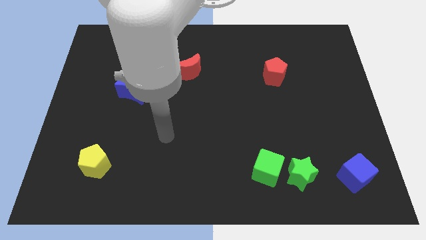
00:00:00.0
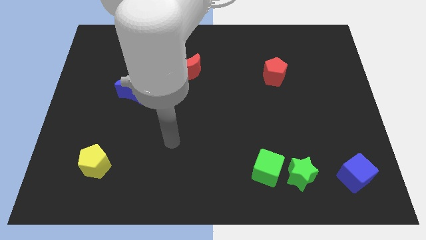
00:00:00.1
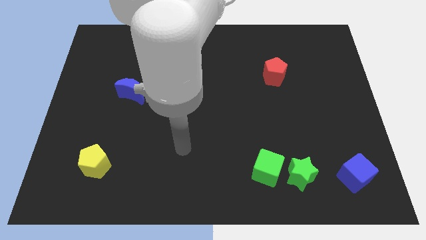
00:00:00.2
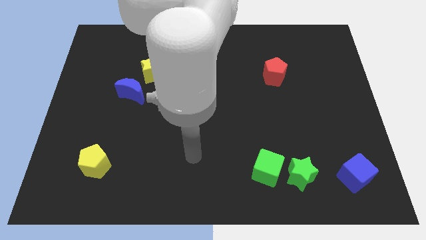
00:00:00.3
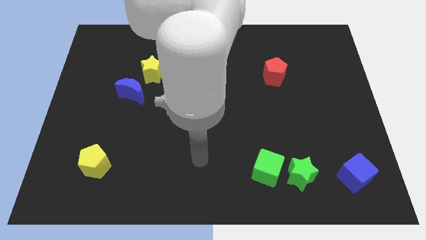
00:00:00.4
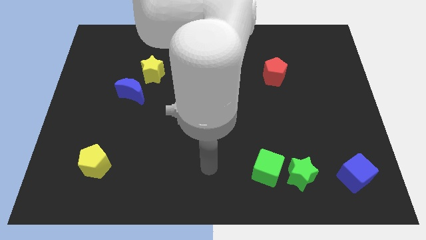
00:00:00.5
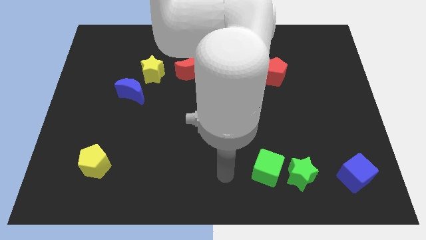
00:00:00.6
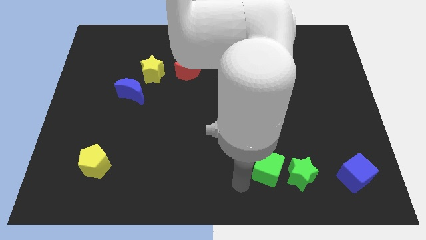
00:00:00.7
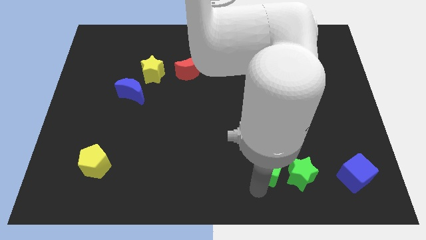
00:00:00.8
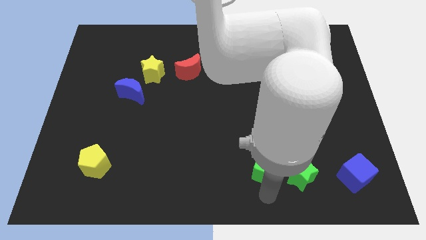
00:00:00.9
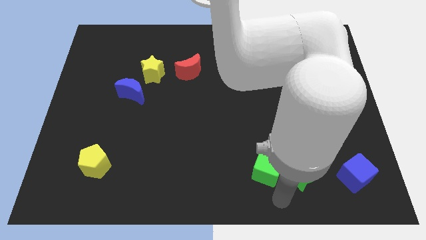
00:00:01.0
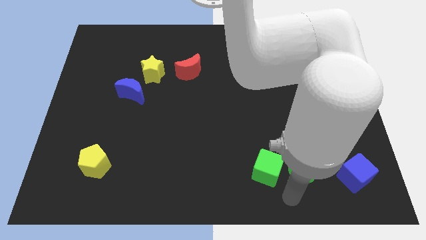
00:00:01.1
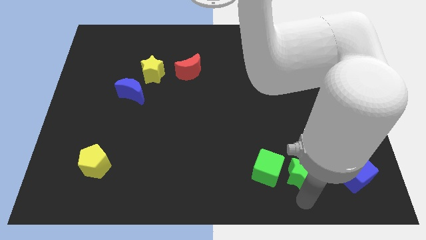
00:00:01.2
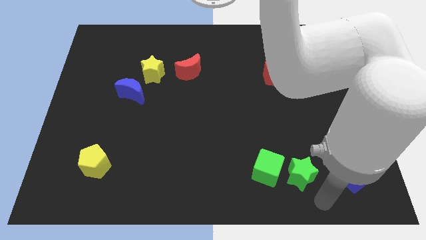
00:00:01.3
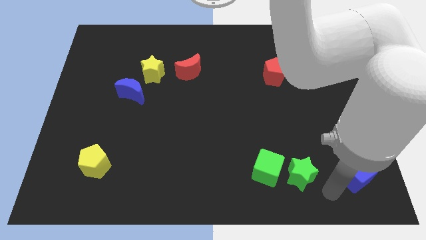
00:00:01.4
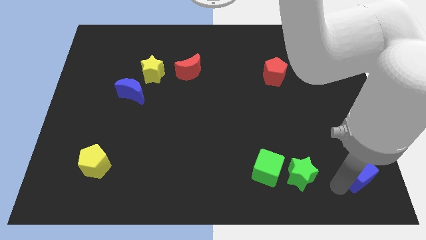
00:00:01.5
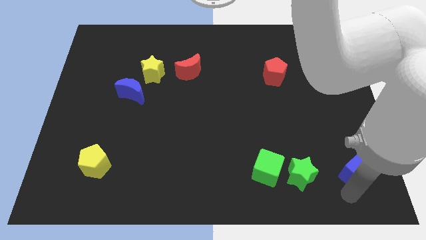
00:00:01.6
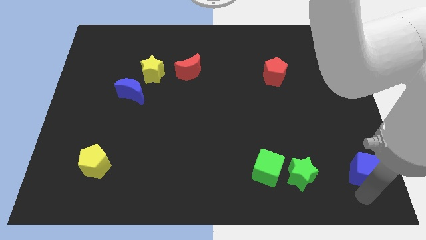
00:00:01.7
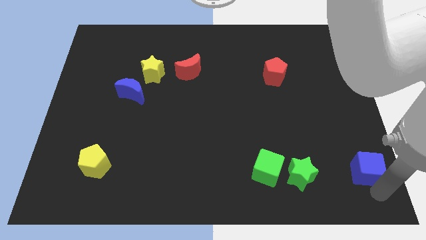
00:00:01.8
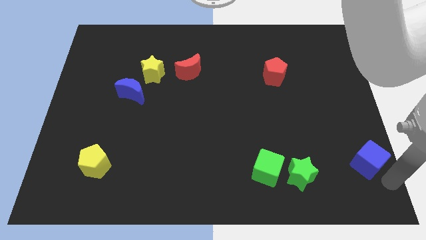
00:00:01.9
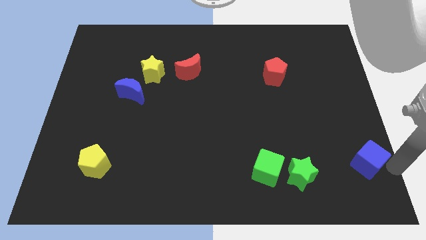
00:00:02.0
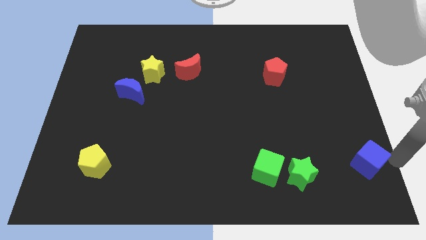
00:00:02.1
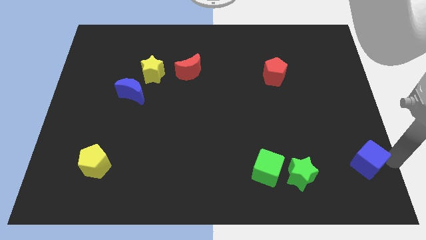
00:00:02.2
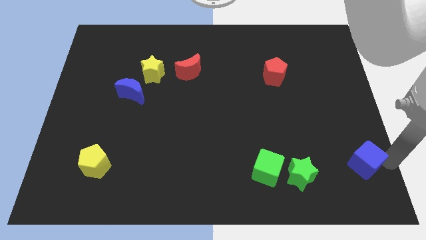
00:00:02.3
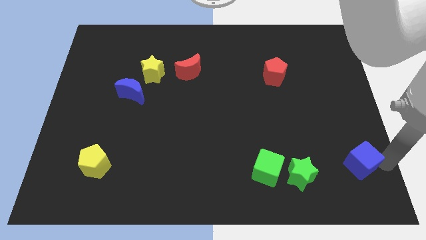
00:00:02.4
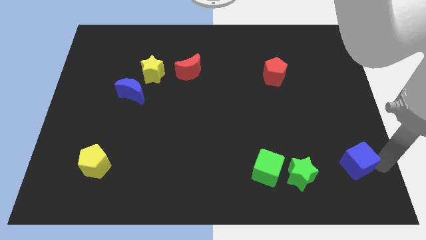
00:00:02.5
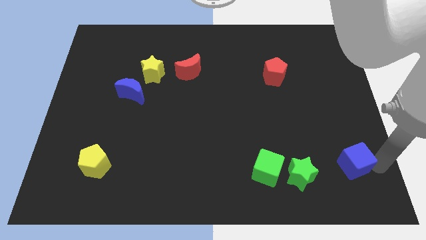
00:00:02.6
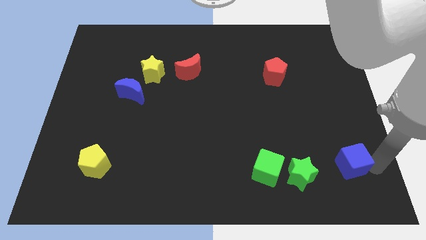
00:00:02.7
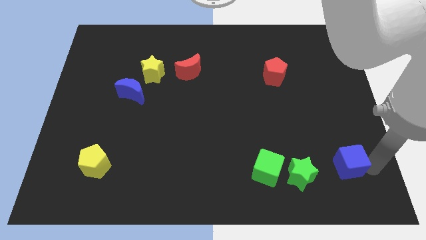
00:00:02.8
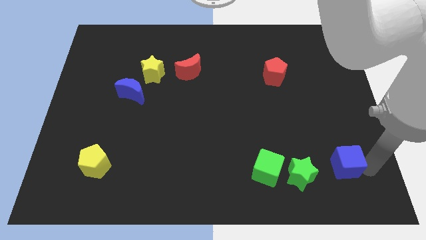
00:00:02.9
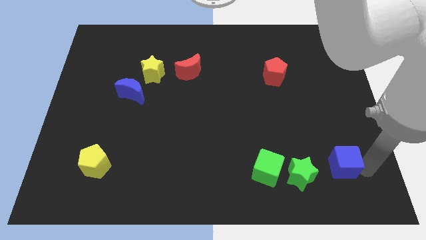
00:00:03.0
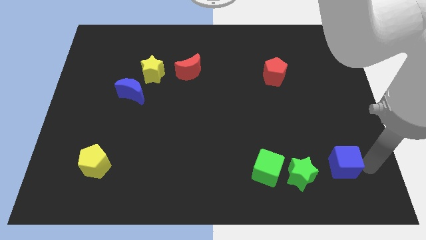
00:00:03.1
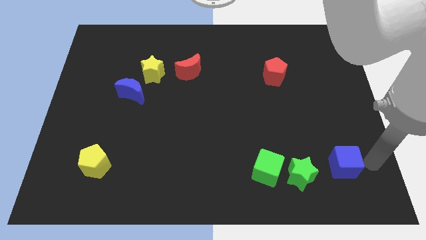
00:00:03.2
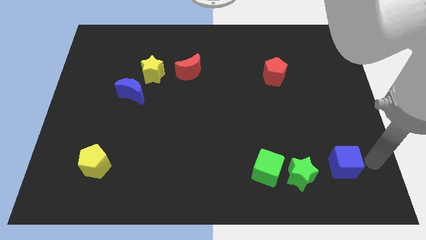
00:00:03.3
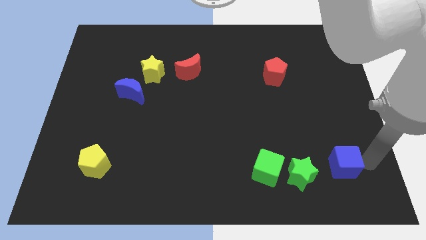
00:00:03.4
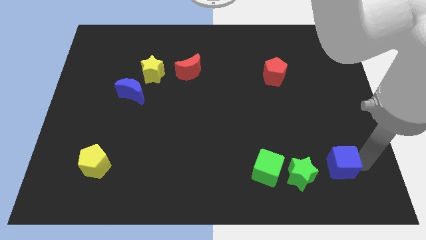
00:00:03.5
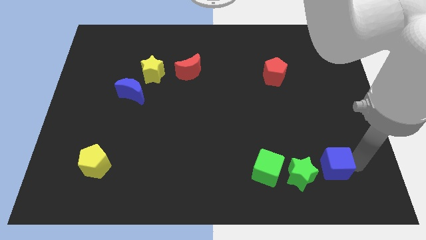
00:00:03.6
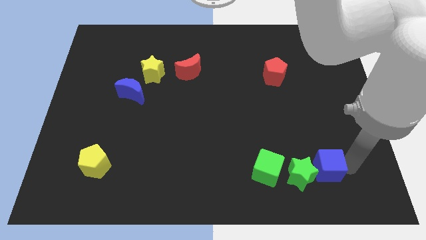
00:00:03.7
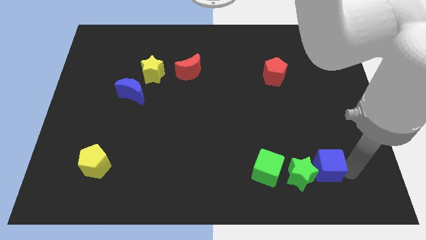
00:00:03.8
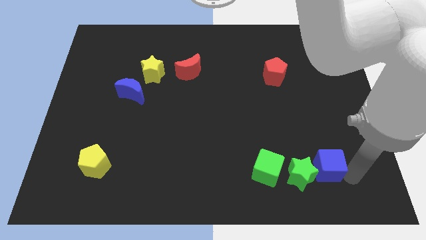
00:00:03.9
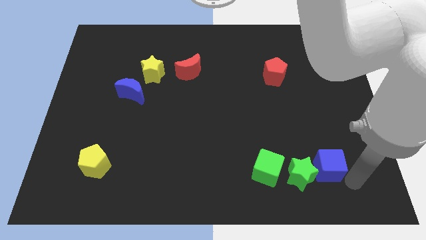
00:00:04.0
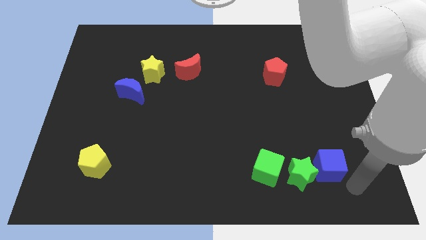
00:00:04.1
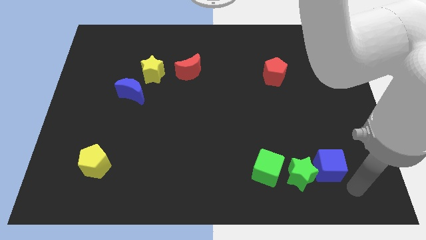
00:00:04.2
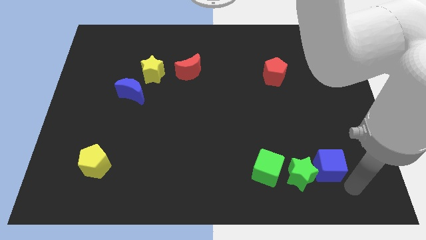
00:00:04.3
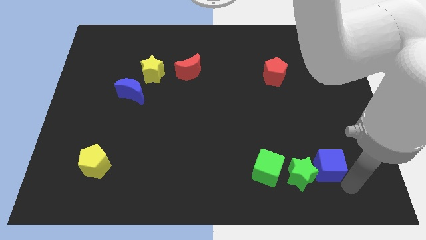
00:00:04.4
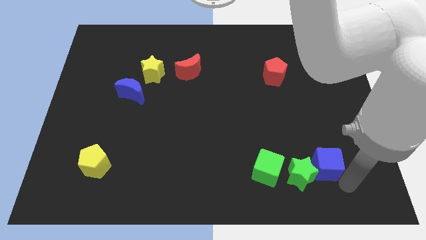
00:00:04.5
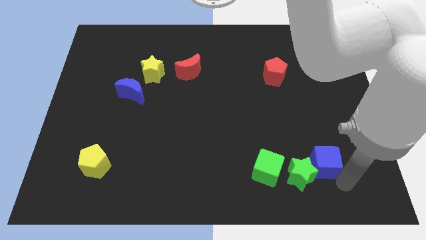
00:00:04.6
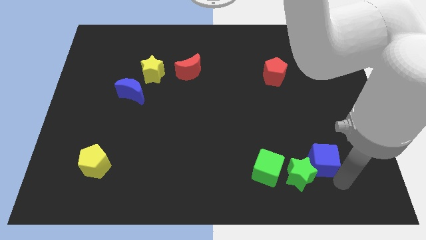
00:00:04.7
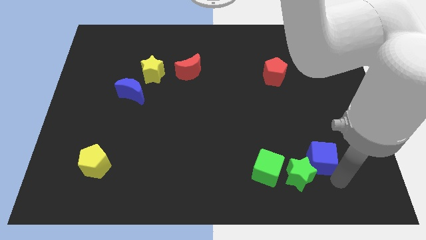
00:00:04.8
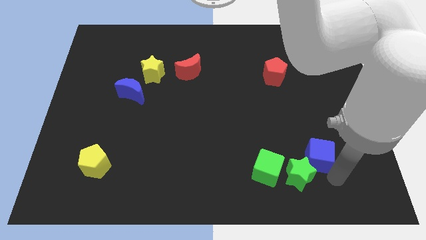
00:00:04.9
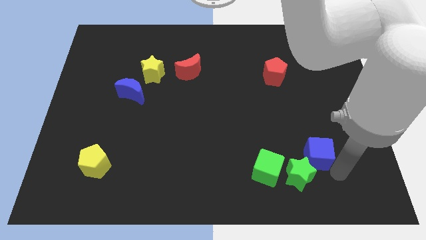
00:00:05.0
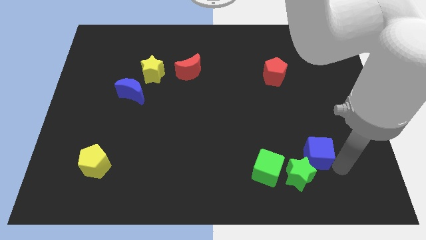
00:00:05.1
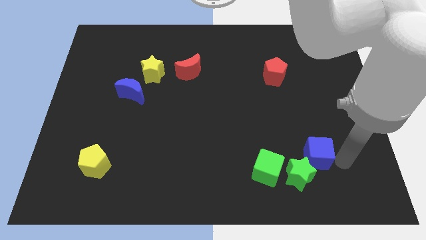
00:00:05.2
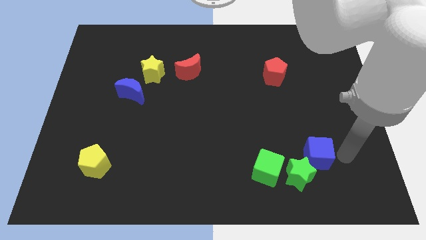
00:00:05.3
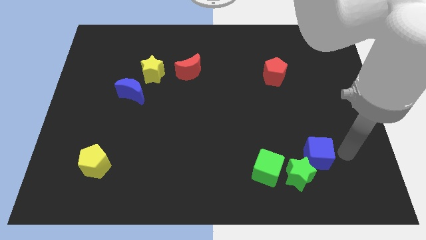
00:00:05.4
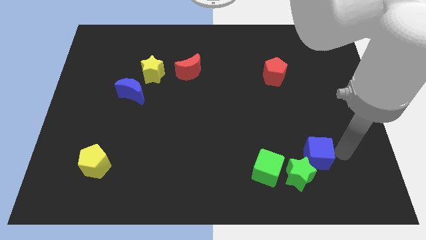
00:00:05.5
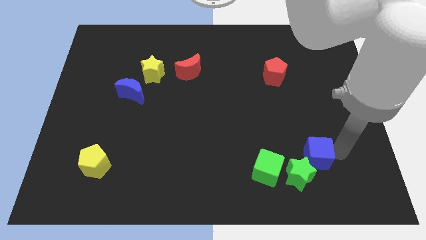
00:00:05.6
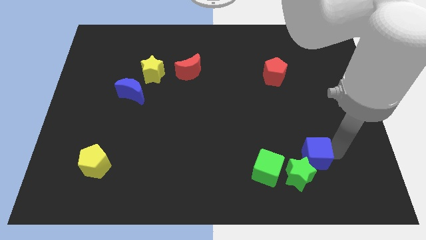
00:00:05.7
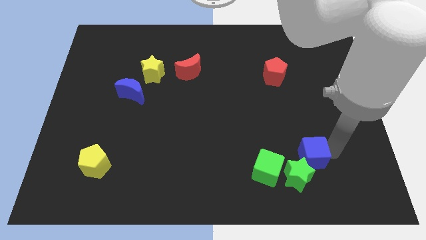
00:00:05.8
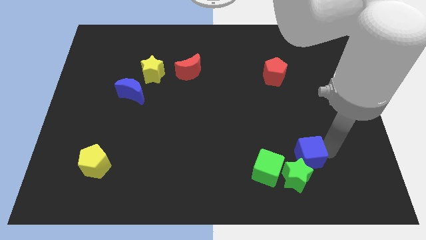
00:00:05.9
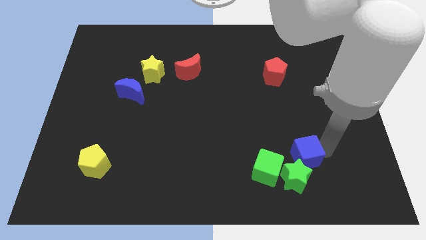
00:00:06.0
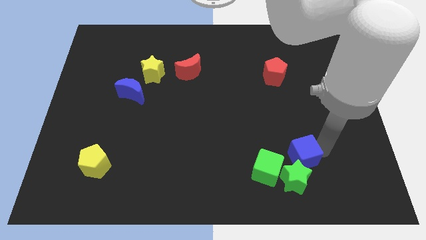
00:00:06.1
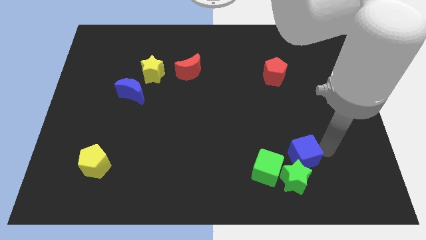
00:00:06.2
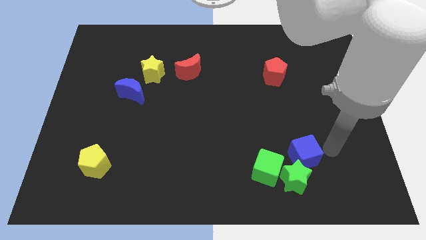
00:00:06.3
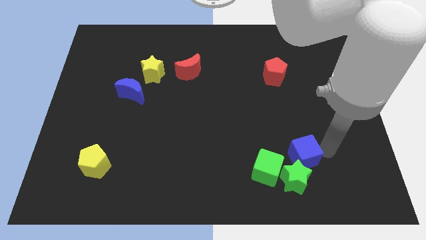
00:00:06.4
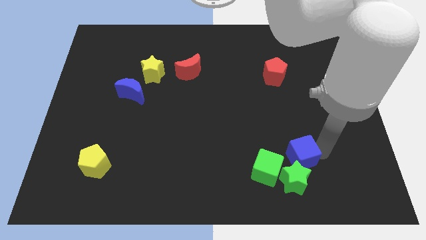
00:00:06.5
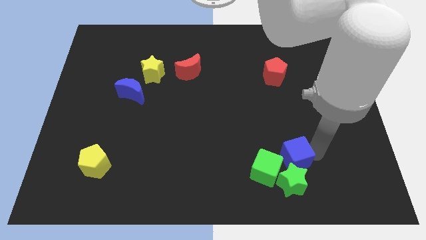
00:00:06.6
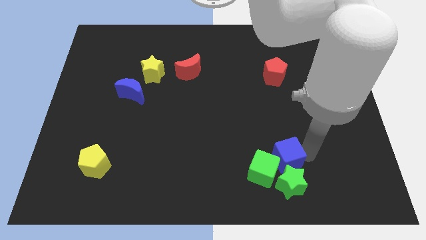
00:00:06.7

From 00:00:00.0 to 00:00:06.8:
move the blue cube next to the green cube
